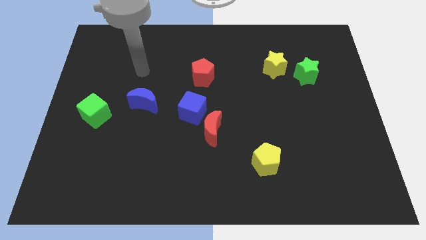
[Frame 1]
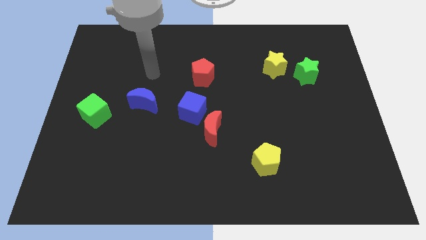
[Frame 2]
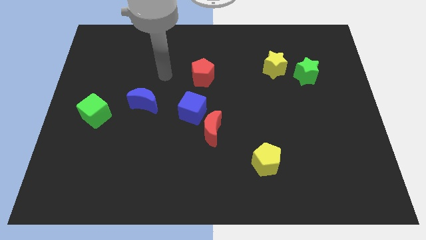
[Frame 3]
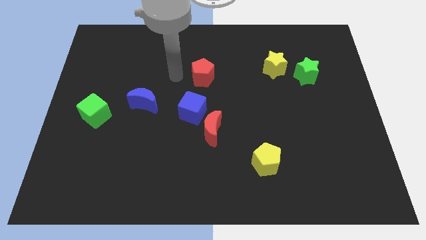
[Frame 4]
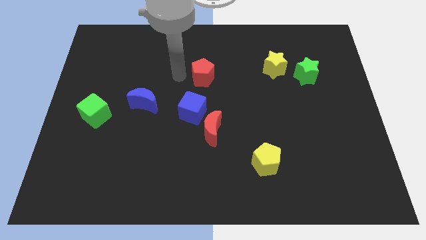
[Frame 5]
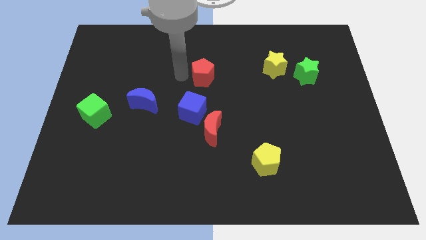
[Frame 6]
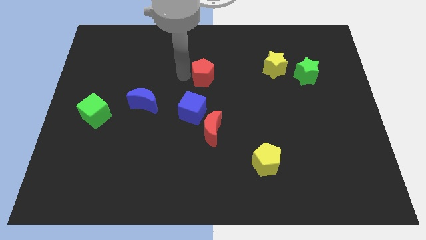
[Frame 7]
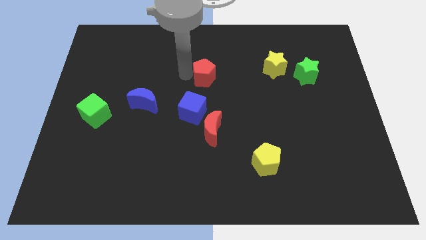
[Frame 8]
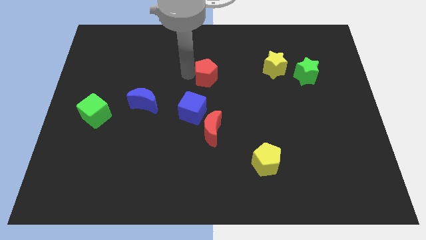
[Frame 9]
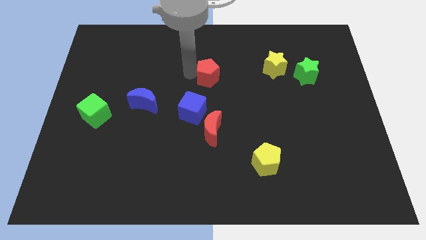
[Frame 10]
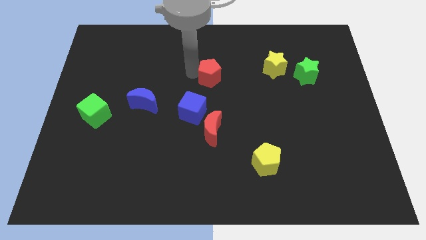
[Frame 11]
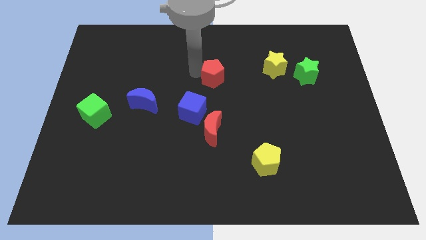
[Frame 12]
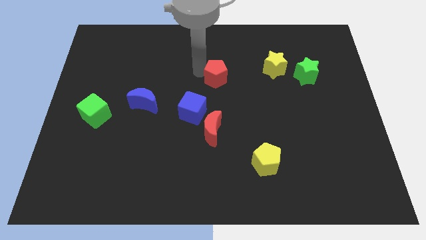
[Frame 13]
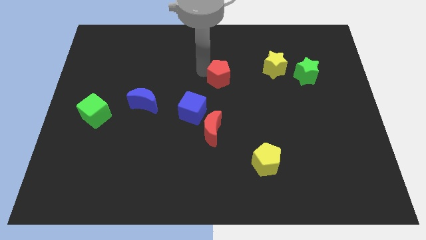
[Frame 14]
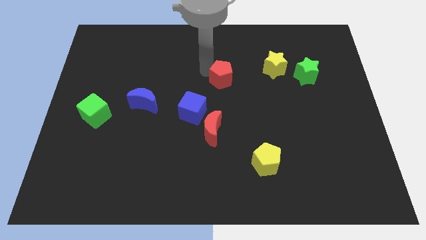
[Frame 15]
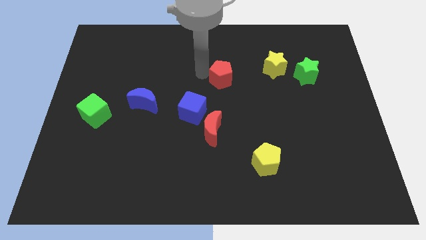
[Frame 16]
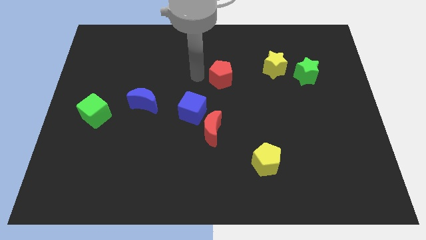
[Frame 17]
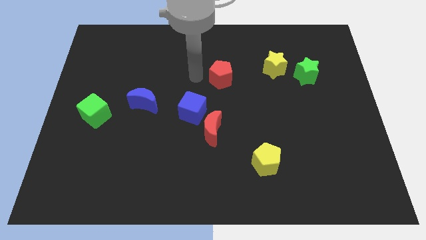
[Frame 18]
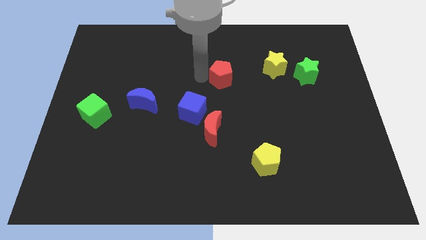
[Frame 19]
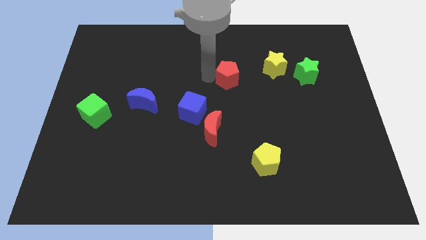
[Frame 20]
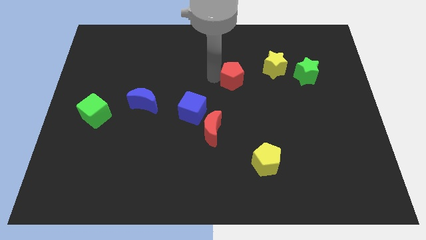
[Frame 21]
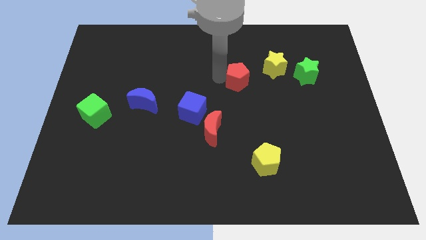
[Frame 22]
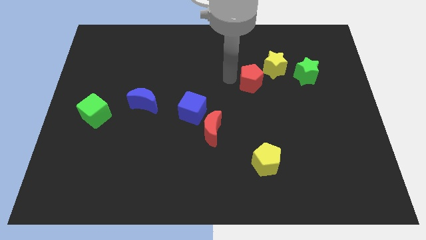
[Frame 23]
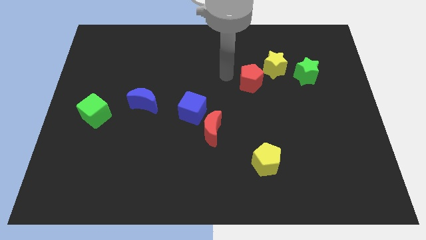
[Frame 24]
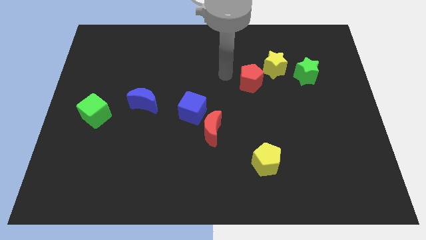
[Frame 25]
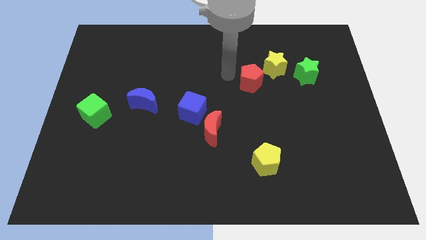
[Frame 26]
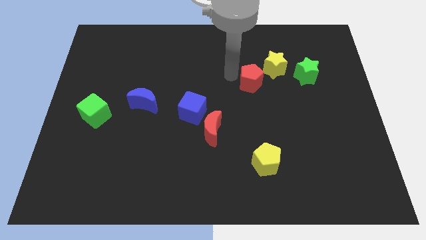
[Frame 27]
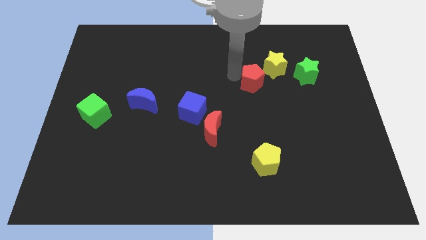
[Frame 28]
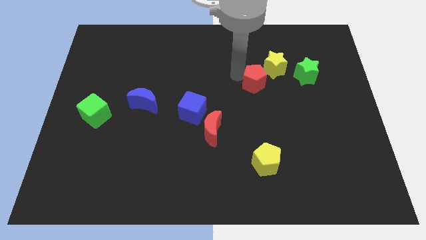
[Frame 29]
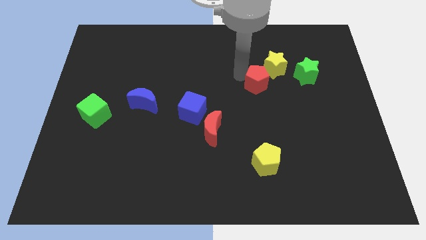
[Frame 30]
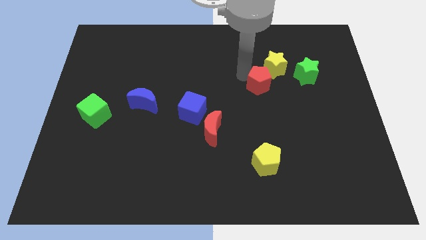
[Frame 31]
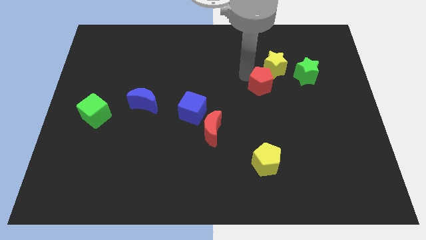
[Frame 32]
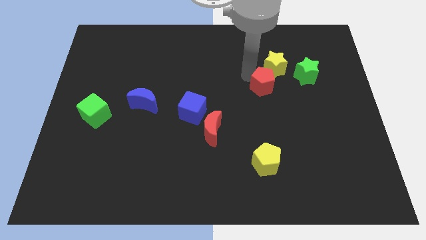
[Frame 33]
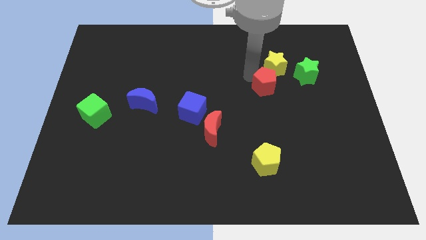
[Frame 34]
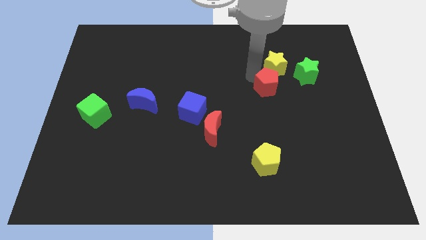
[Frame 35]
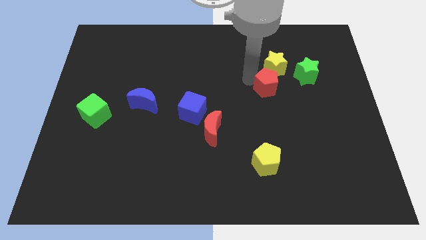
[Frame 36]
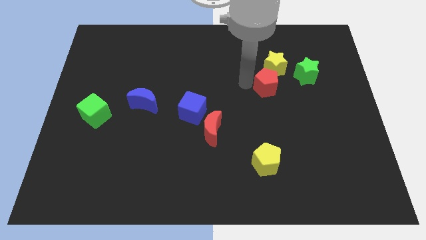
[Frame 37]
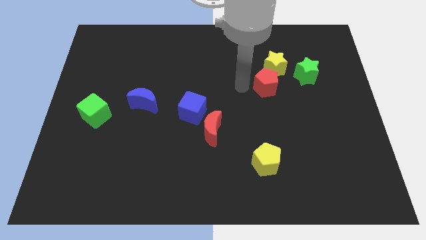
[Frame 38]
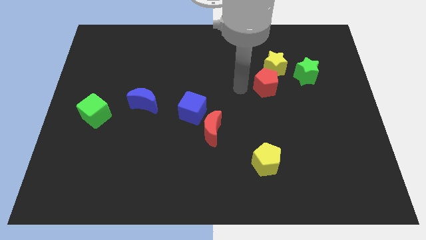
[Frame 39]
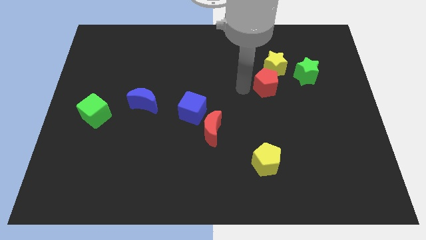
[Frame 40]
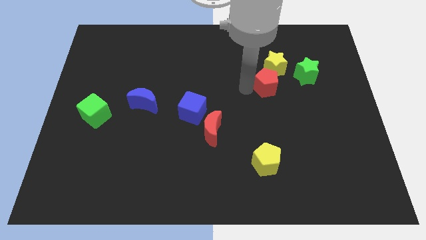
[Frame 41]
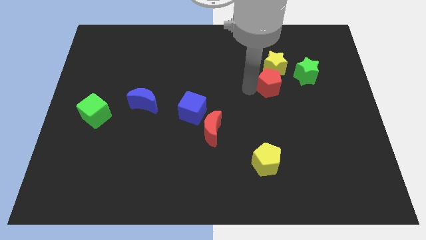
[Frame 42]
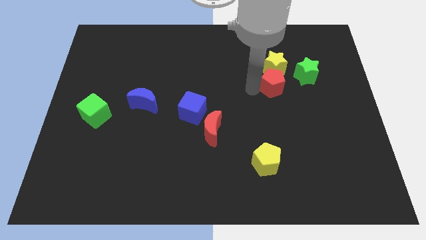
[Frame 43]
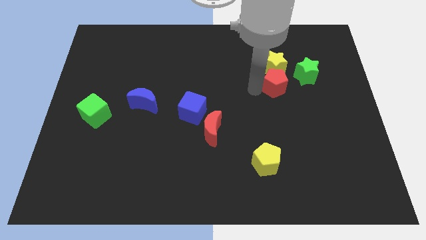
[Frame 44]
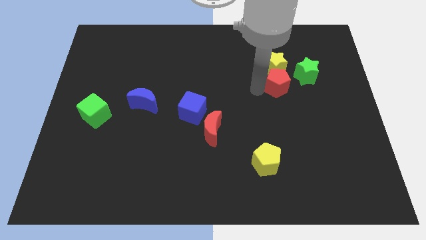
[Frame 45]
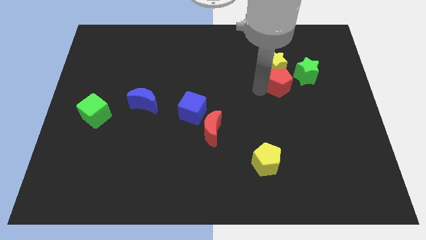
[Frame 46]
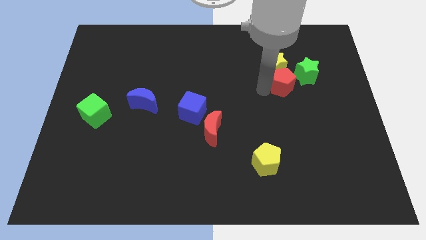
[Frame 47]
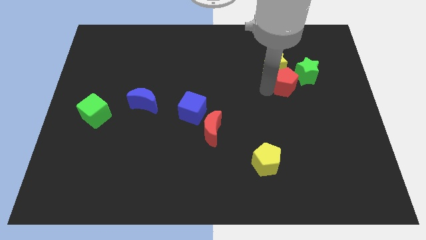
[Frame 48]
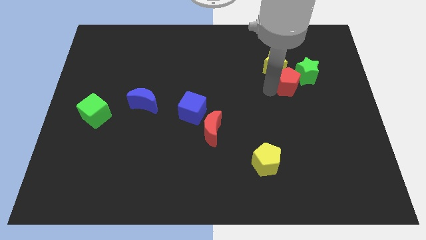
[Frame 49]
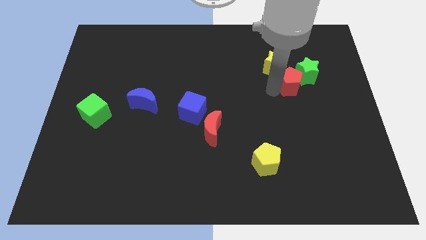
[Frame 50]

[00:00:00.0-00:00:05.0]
slide the red pentagon towards the green star

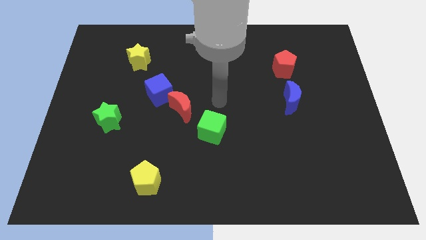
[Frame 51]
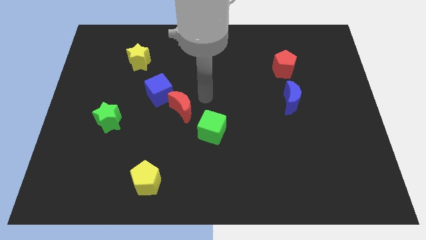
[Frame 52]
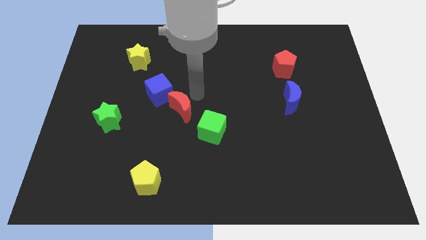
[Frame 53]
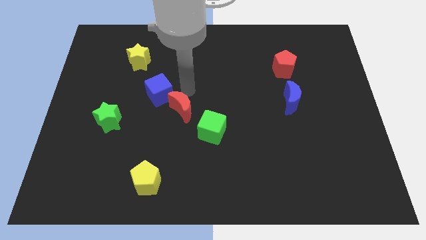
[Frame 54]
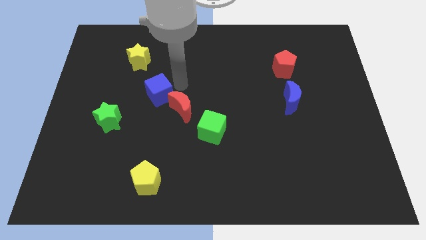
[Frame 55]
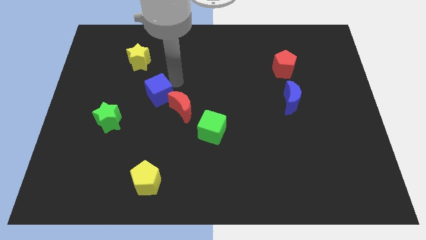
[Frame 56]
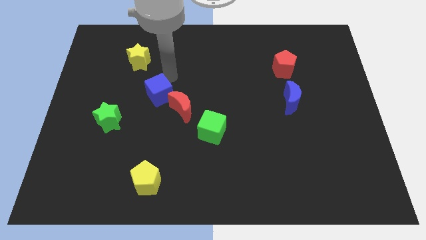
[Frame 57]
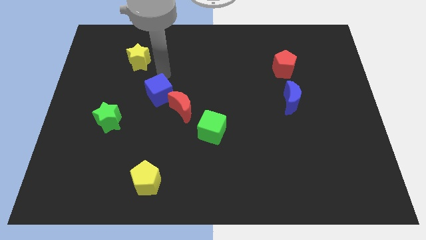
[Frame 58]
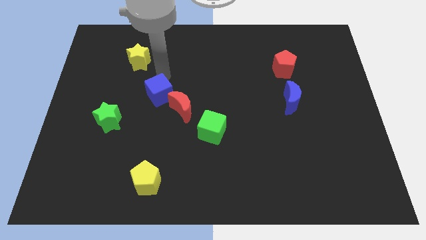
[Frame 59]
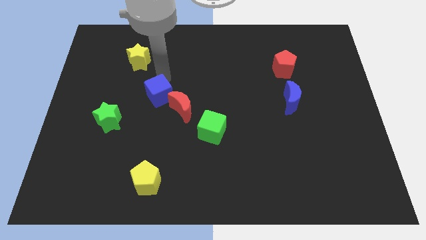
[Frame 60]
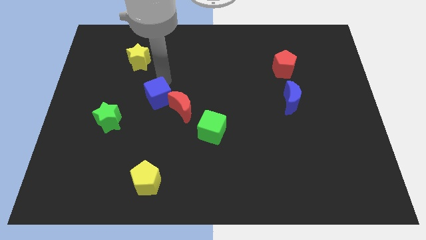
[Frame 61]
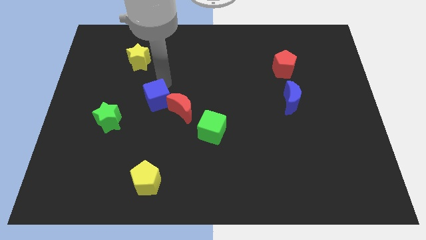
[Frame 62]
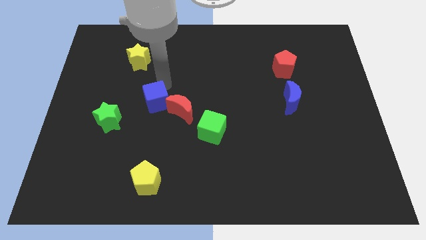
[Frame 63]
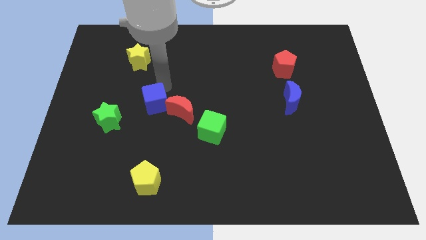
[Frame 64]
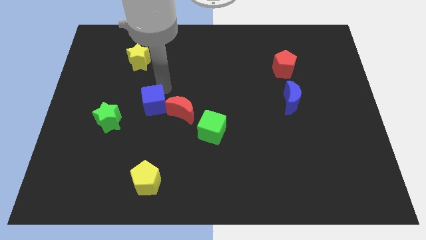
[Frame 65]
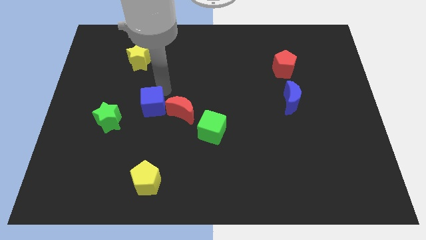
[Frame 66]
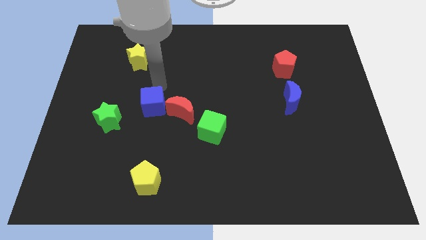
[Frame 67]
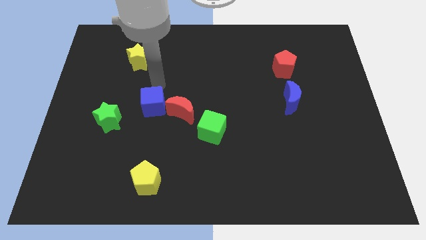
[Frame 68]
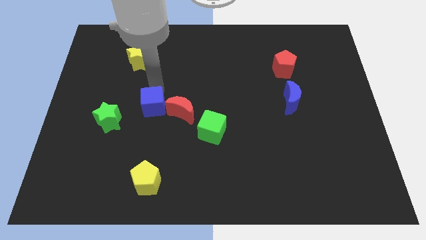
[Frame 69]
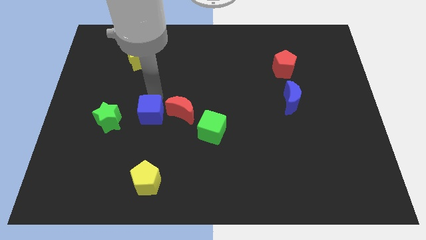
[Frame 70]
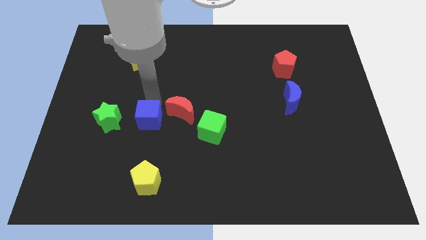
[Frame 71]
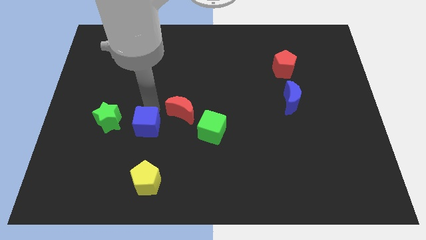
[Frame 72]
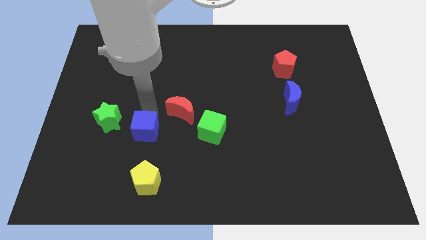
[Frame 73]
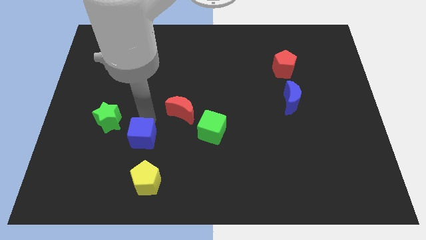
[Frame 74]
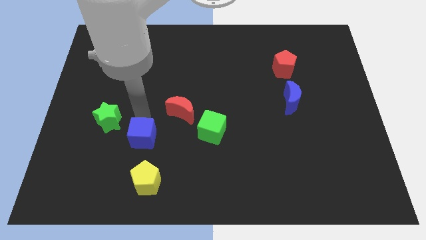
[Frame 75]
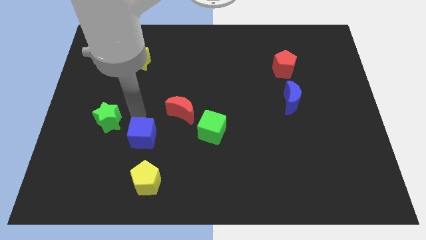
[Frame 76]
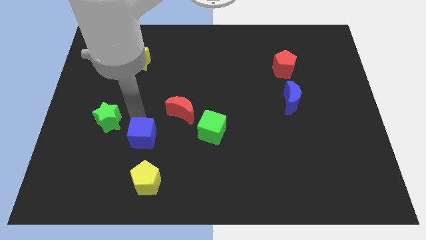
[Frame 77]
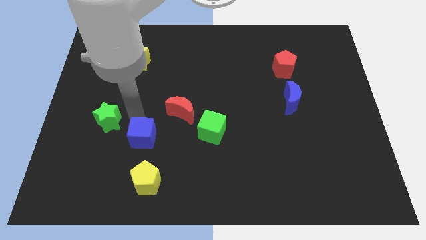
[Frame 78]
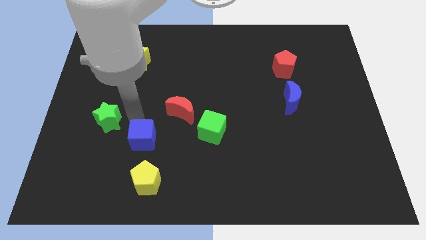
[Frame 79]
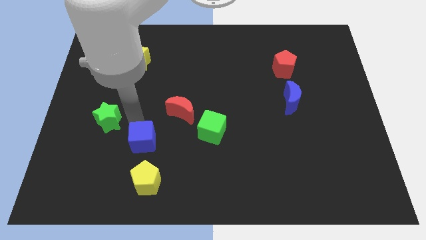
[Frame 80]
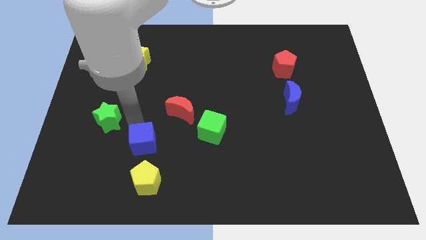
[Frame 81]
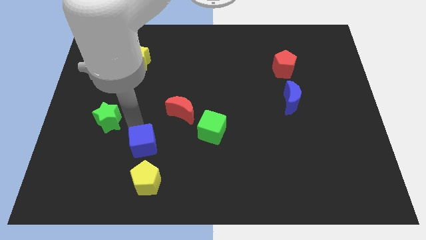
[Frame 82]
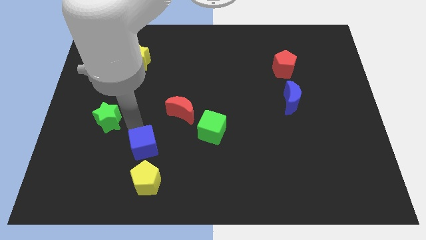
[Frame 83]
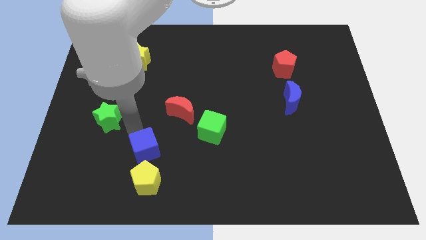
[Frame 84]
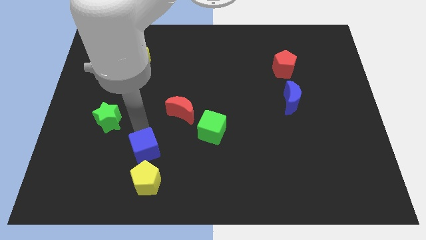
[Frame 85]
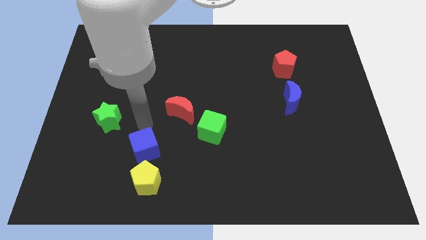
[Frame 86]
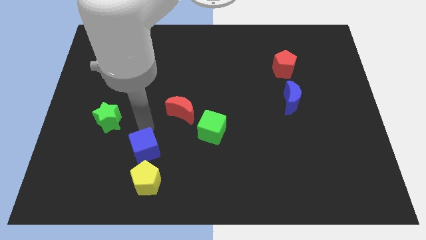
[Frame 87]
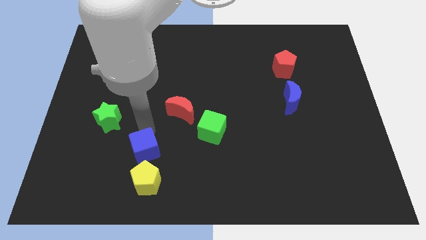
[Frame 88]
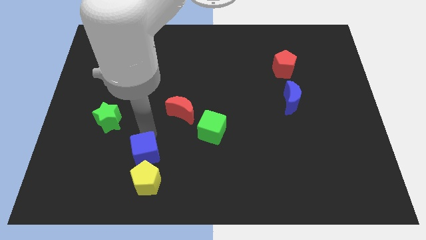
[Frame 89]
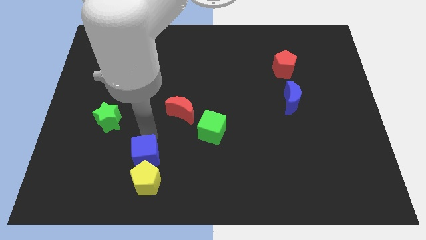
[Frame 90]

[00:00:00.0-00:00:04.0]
push the blue cube towards the yellow pentagon
